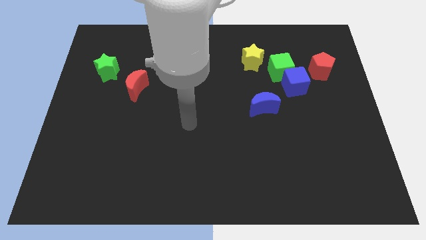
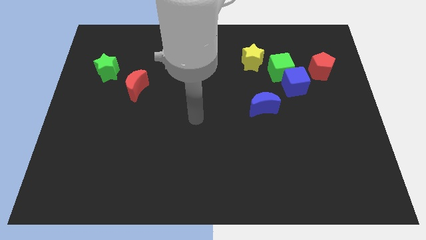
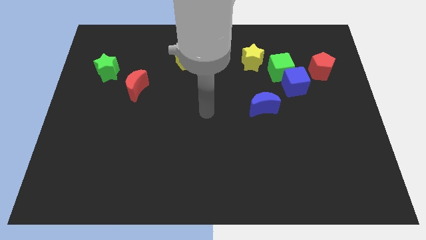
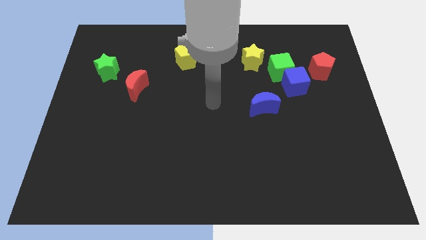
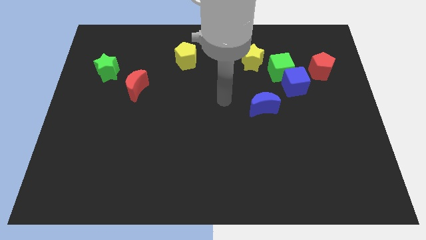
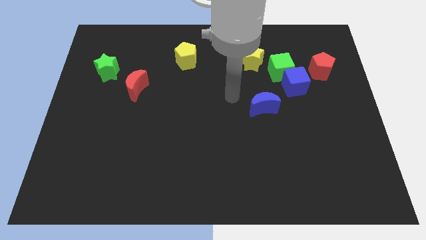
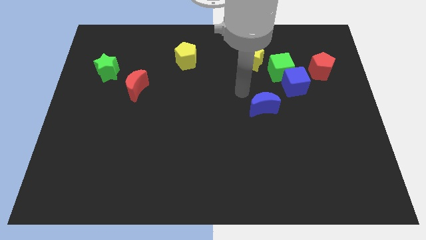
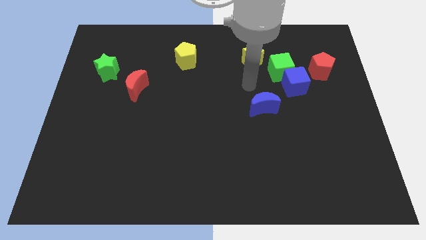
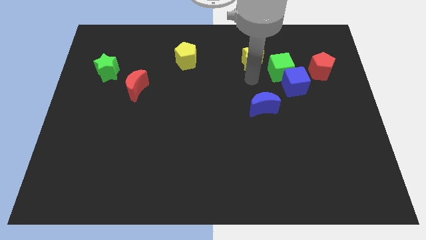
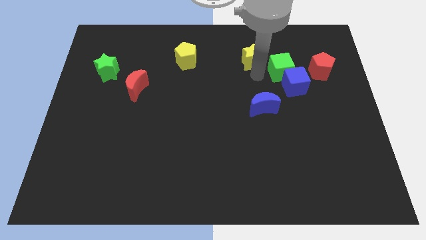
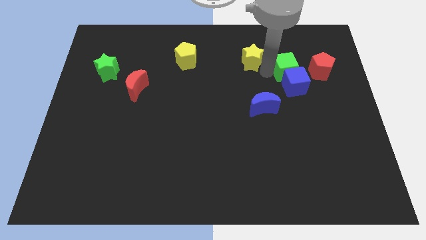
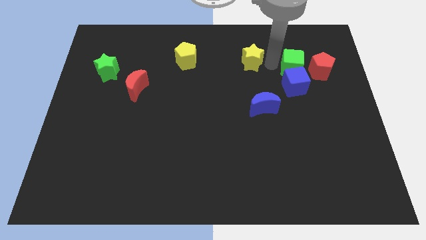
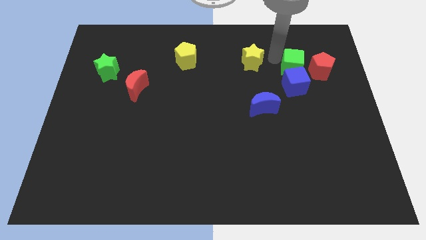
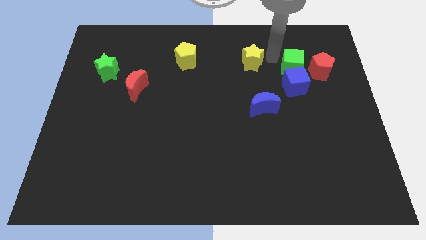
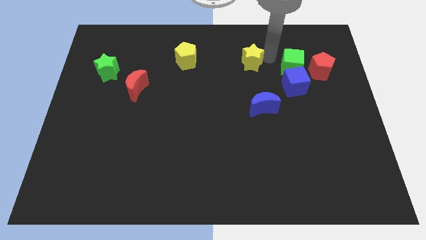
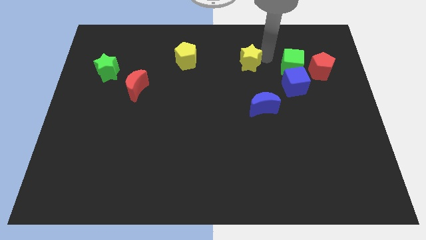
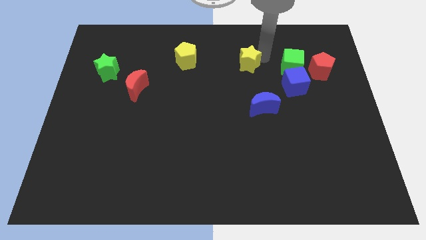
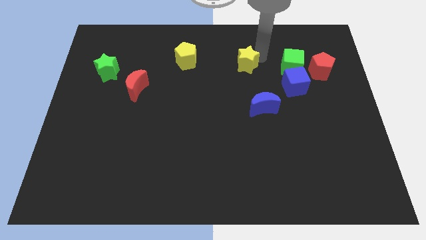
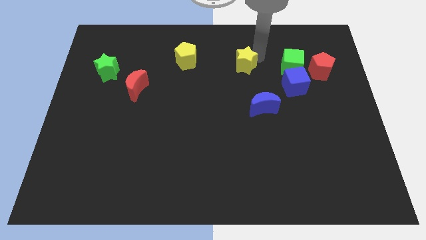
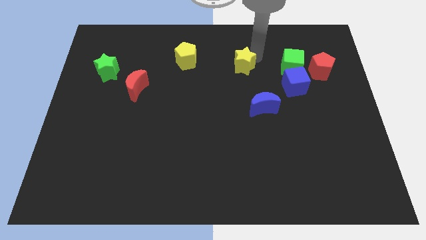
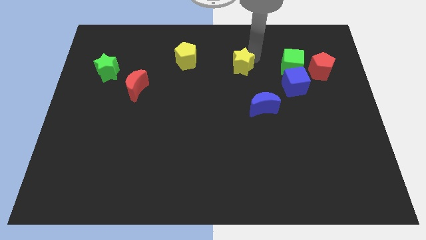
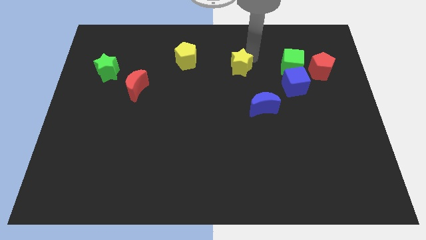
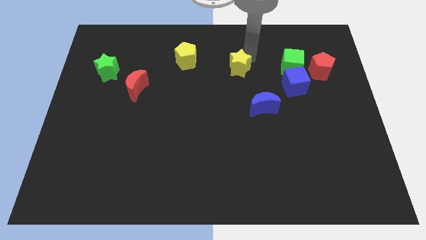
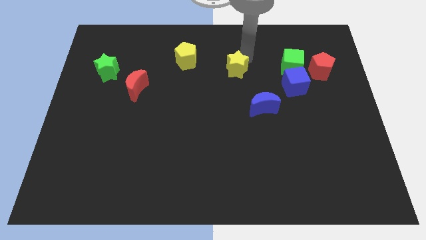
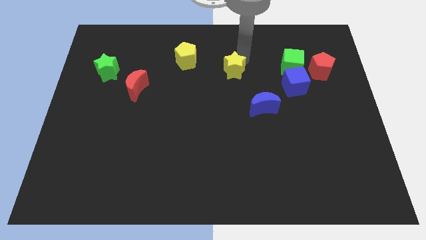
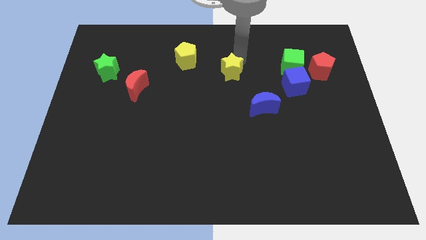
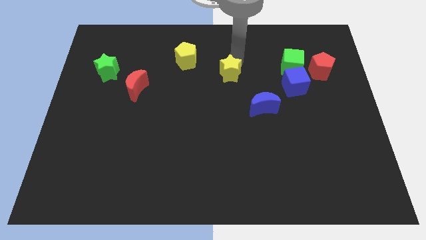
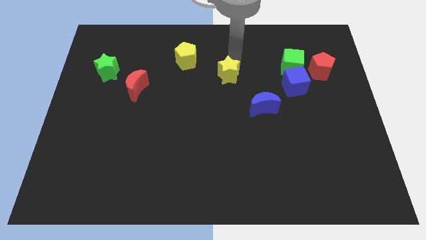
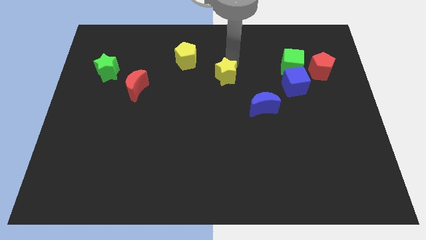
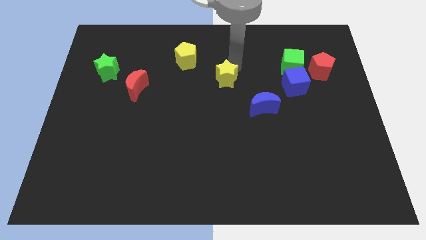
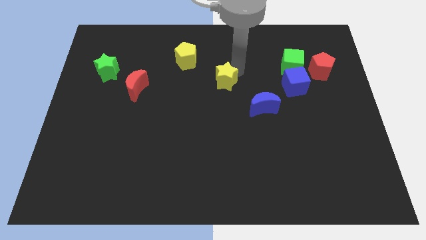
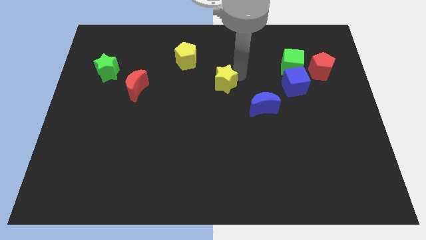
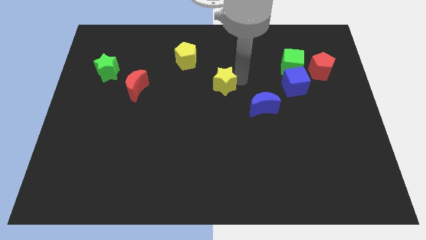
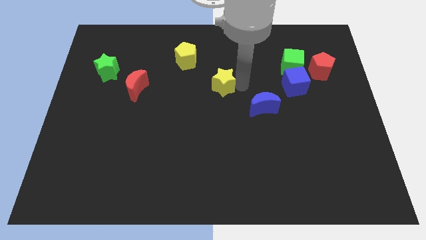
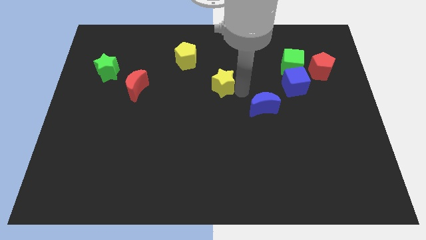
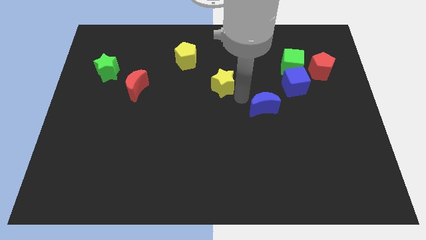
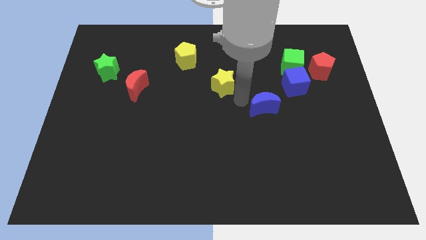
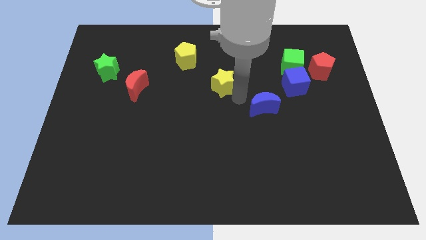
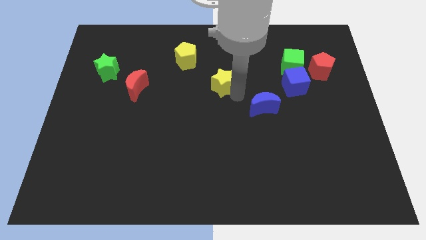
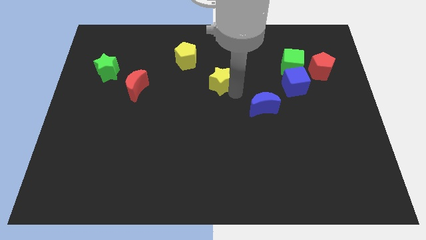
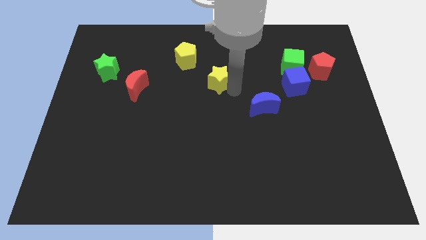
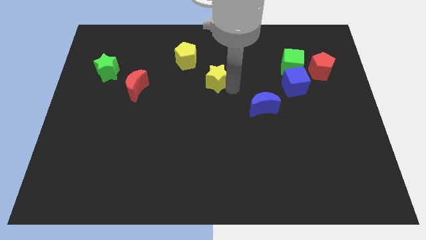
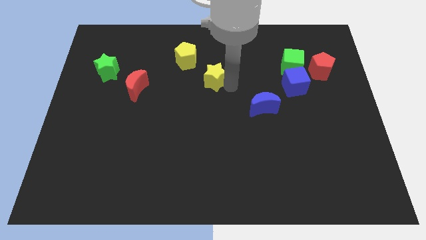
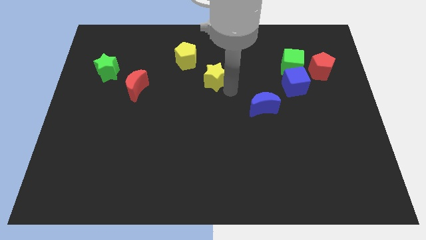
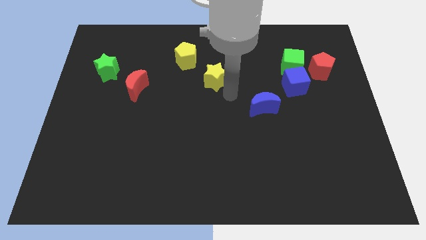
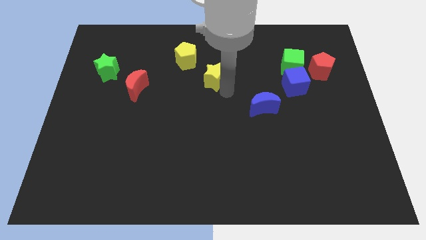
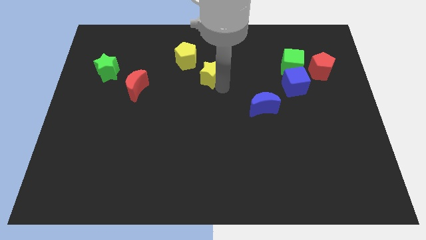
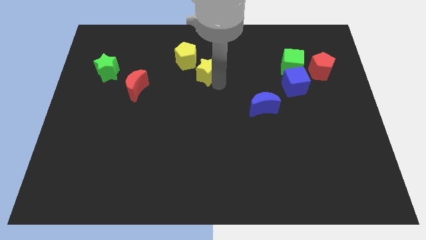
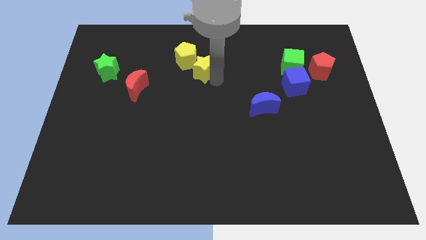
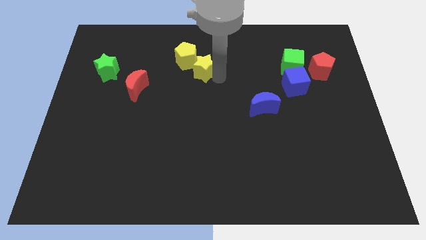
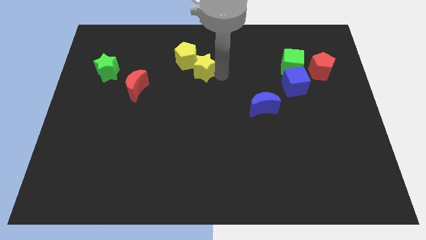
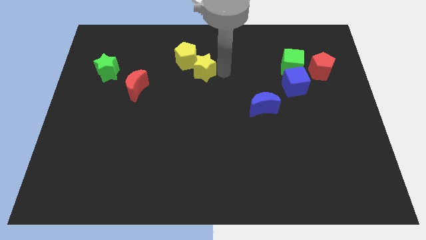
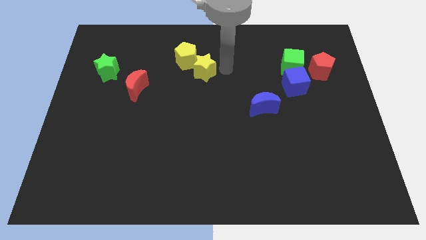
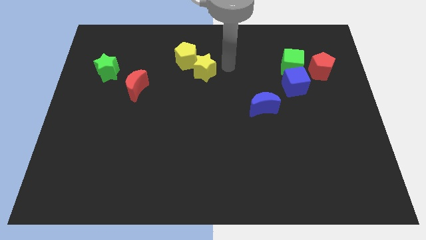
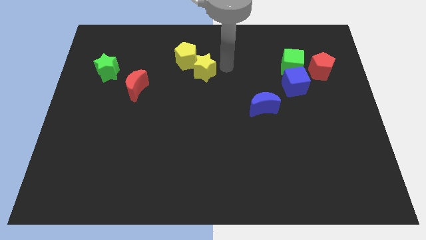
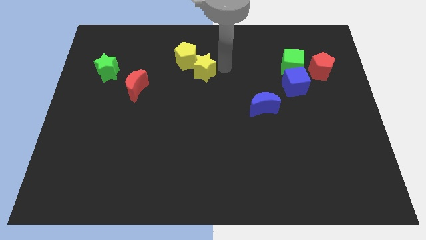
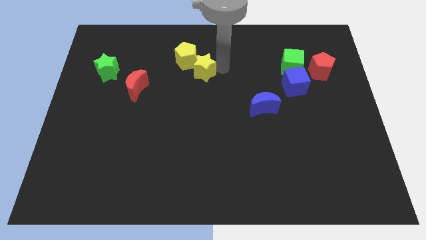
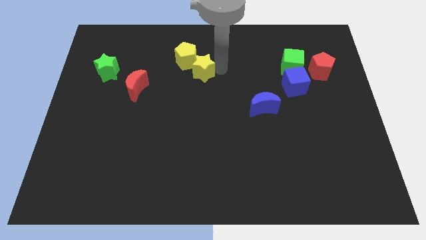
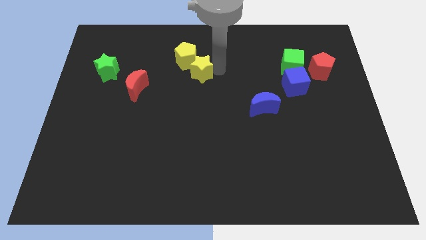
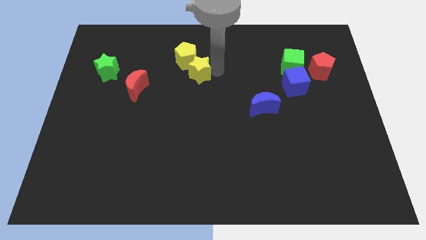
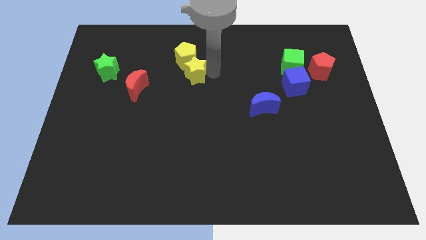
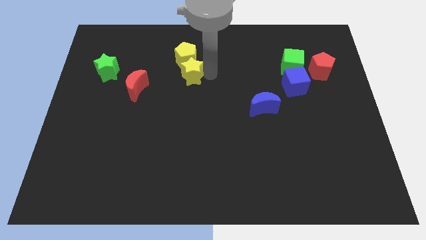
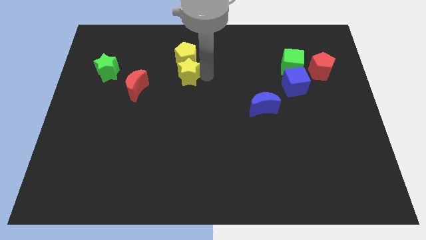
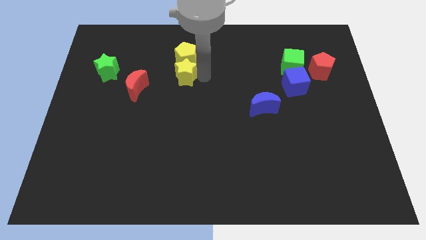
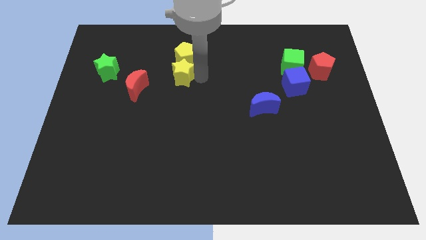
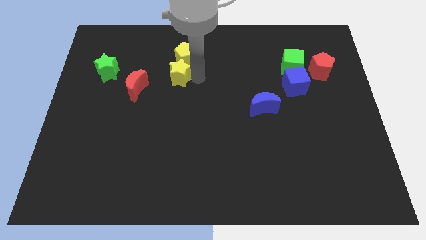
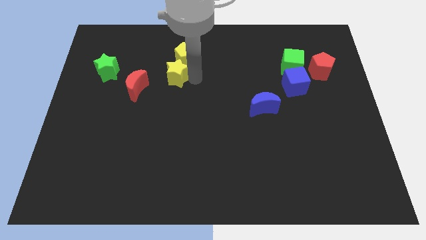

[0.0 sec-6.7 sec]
push the yellow star to the top right of the red moon
